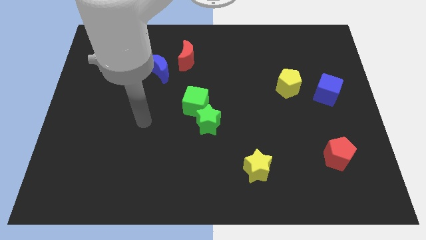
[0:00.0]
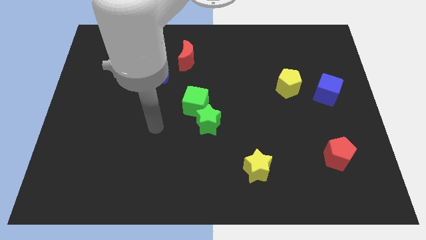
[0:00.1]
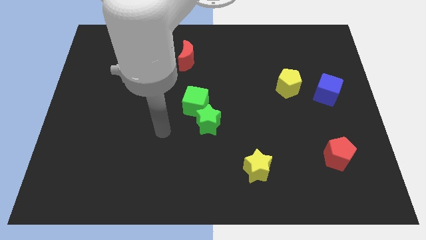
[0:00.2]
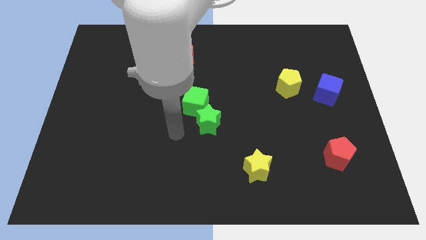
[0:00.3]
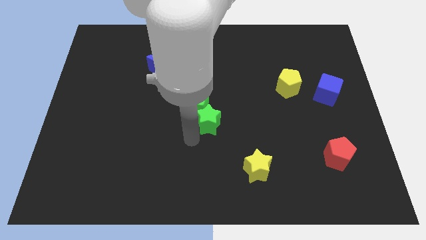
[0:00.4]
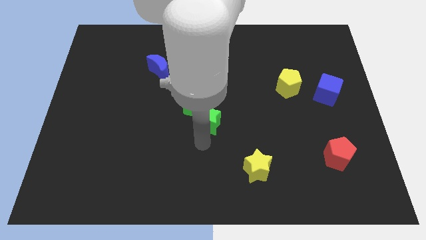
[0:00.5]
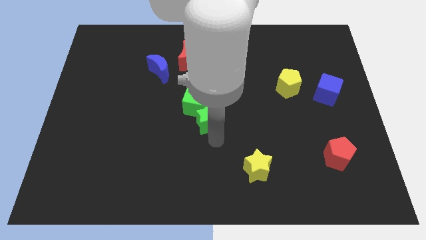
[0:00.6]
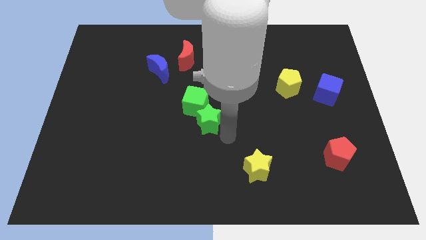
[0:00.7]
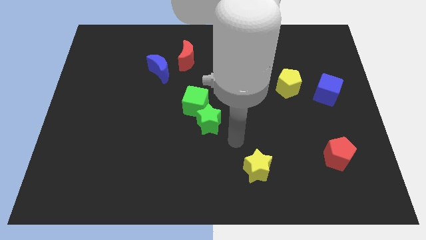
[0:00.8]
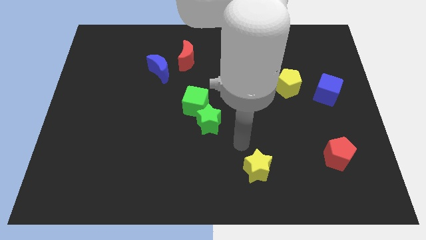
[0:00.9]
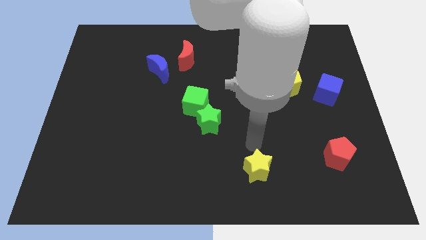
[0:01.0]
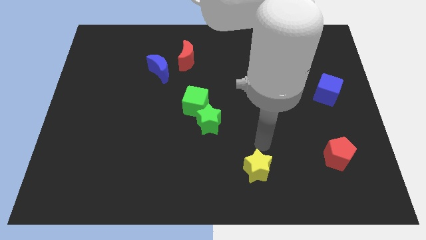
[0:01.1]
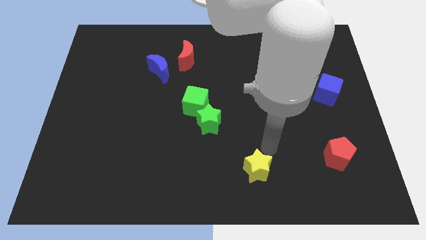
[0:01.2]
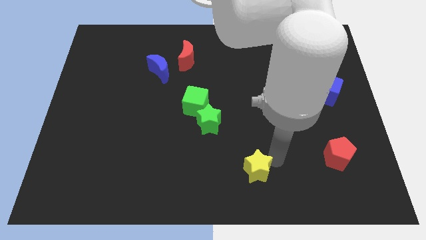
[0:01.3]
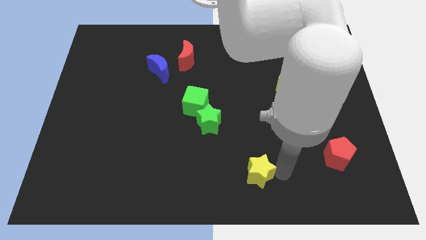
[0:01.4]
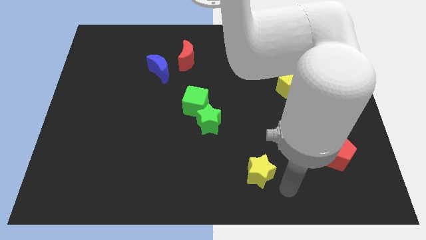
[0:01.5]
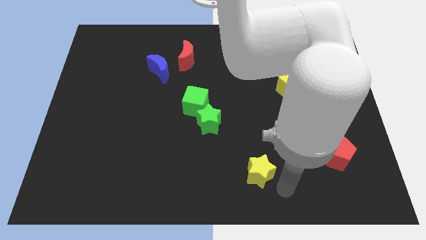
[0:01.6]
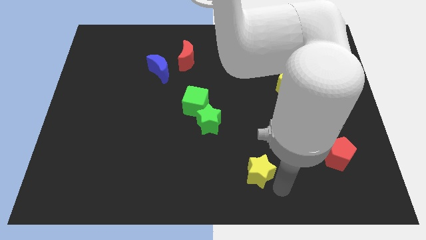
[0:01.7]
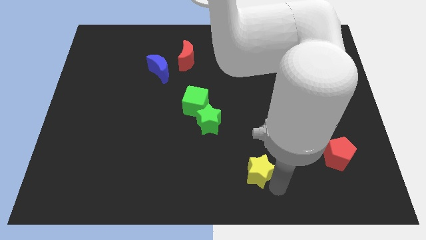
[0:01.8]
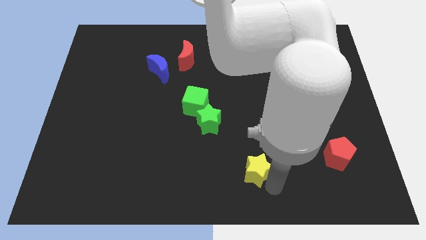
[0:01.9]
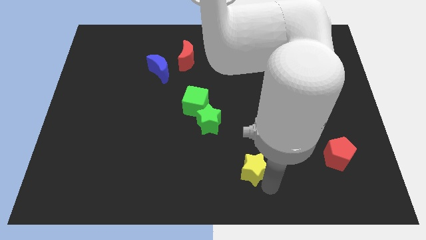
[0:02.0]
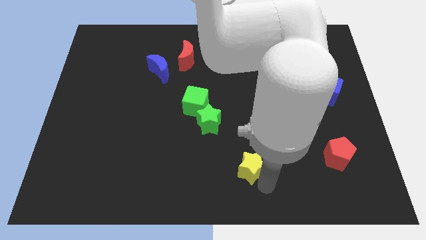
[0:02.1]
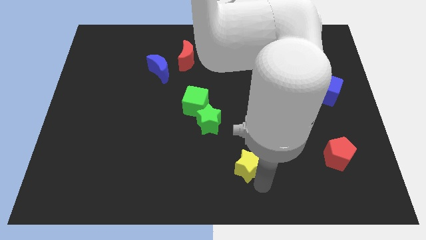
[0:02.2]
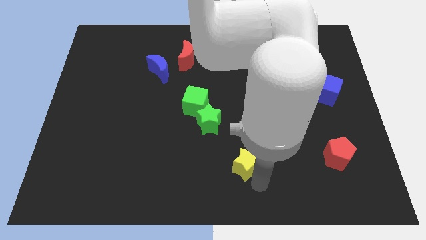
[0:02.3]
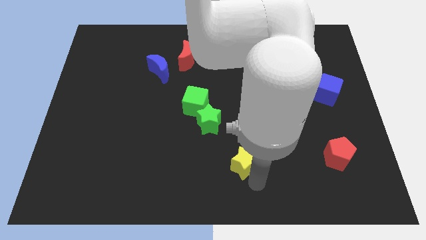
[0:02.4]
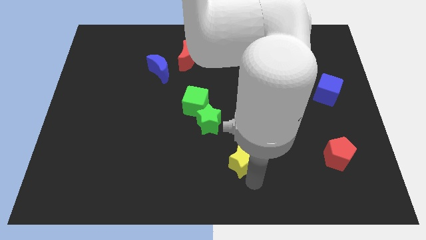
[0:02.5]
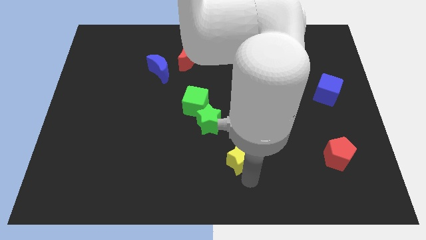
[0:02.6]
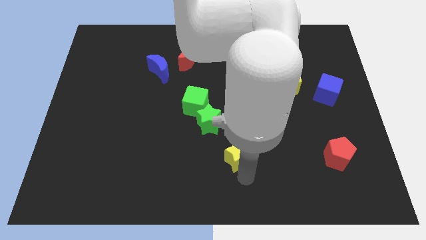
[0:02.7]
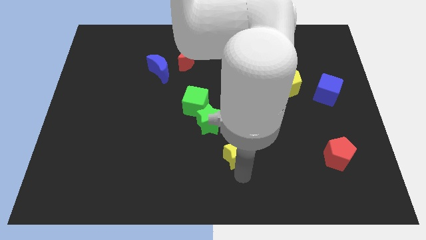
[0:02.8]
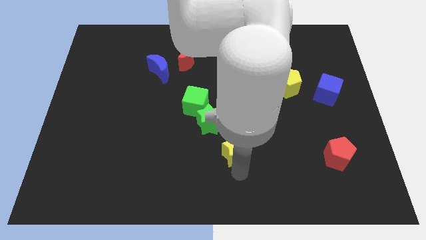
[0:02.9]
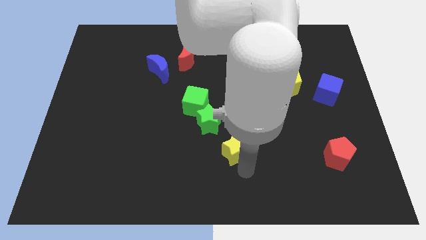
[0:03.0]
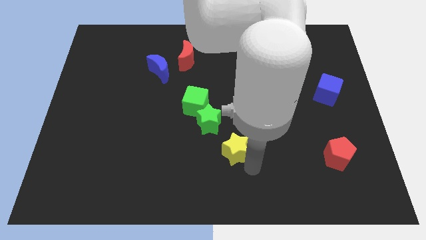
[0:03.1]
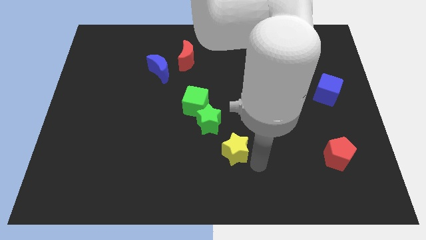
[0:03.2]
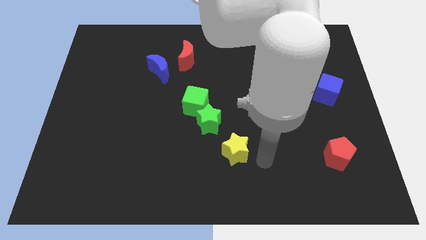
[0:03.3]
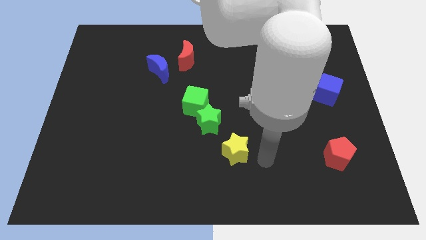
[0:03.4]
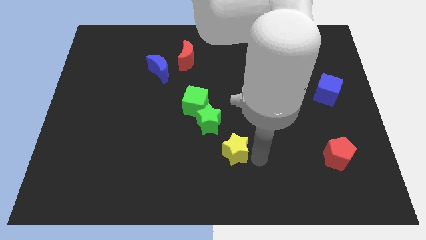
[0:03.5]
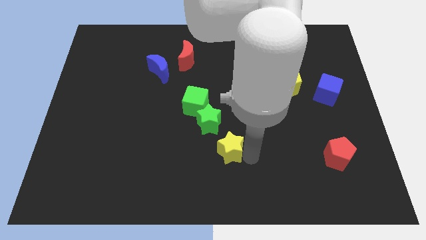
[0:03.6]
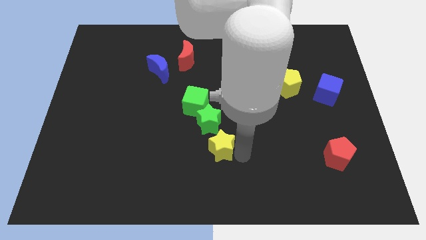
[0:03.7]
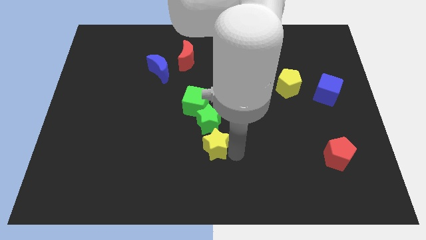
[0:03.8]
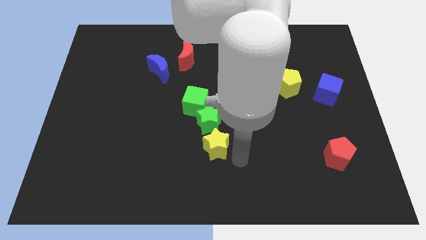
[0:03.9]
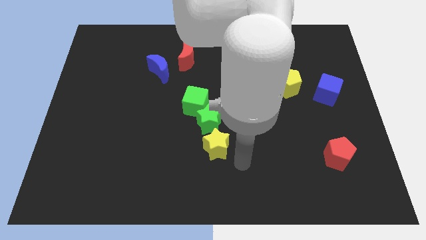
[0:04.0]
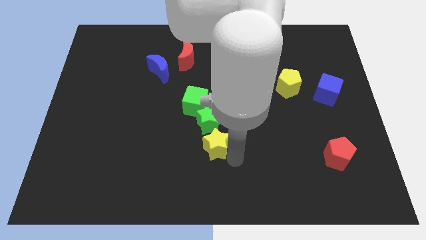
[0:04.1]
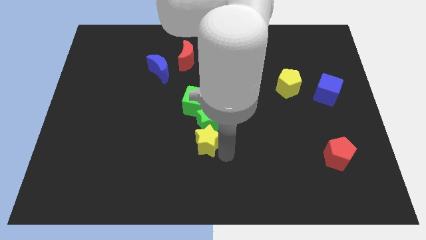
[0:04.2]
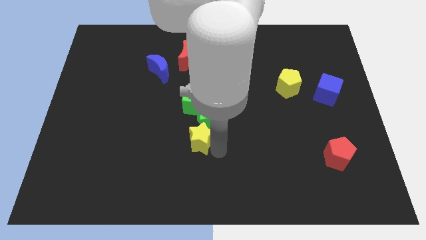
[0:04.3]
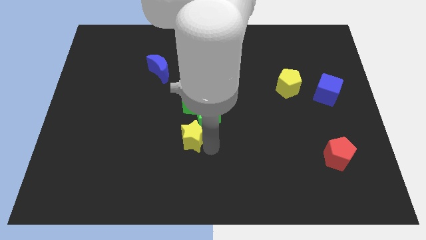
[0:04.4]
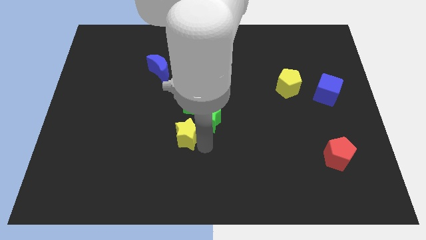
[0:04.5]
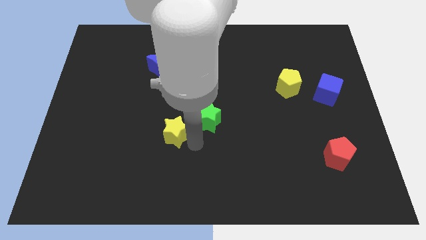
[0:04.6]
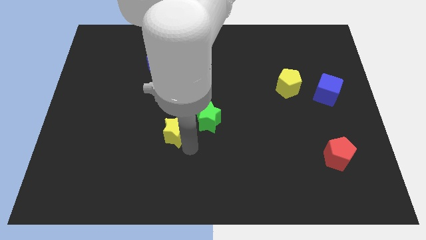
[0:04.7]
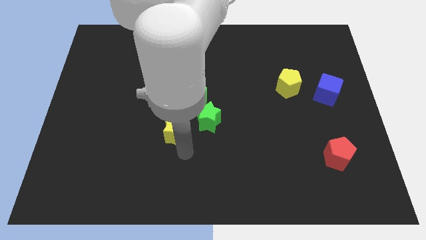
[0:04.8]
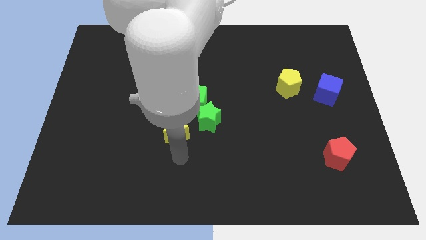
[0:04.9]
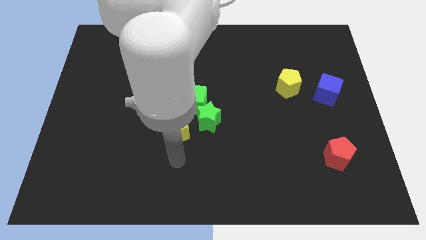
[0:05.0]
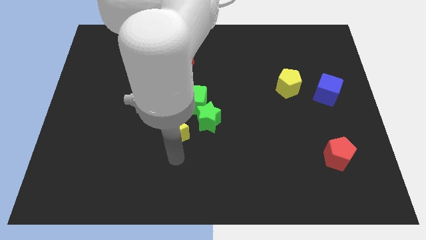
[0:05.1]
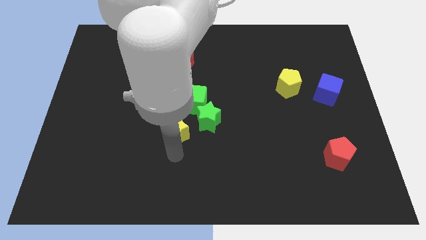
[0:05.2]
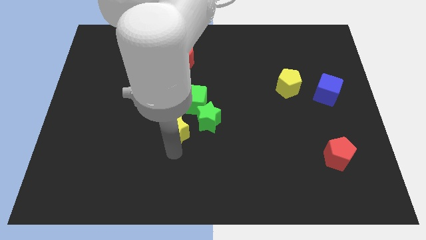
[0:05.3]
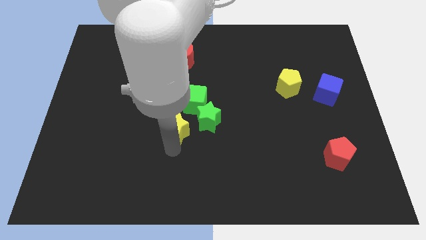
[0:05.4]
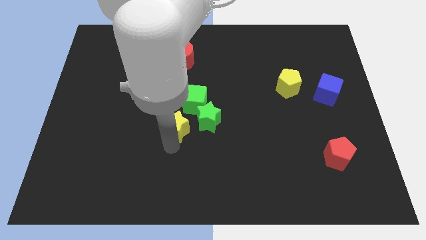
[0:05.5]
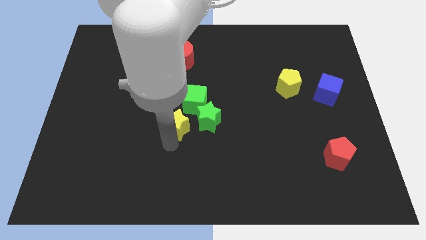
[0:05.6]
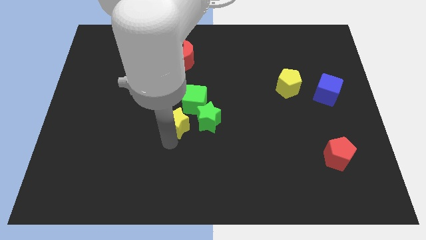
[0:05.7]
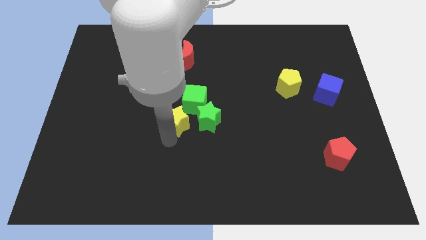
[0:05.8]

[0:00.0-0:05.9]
push the yellow star diagonally upwards and to the left

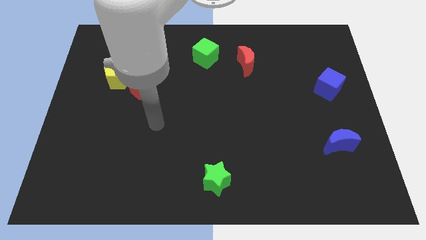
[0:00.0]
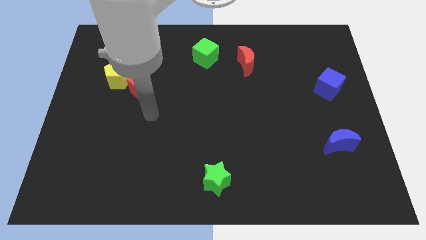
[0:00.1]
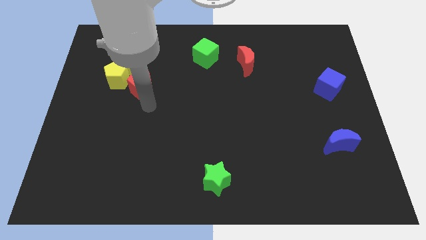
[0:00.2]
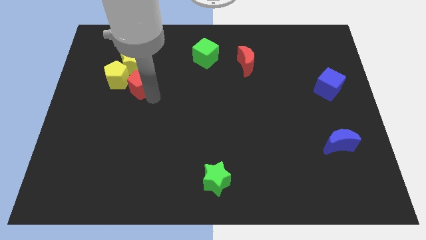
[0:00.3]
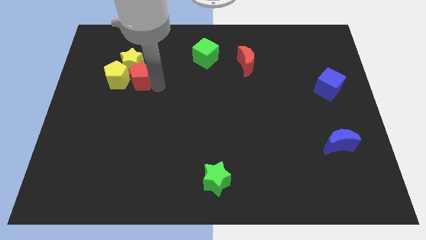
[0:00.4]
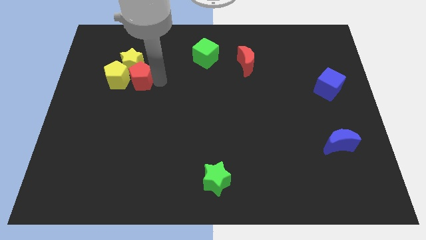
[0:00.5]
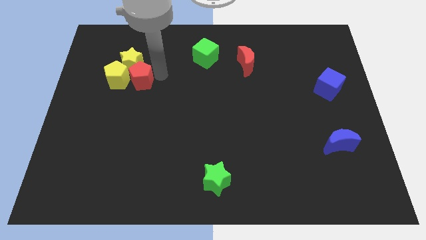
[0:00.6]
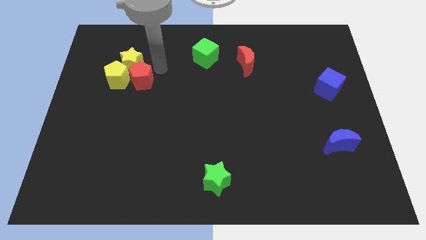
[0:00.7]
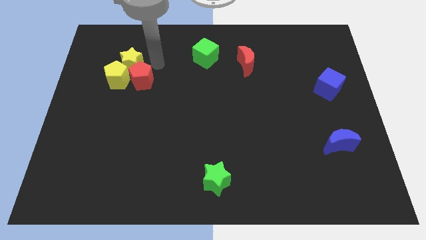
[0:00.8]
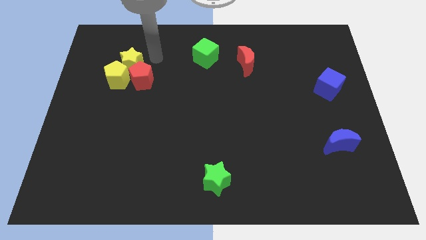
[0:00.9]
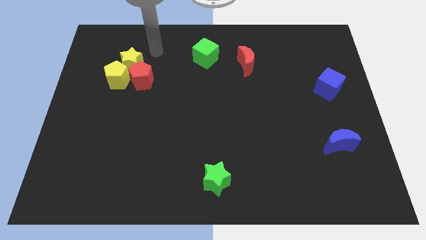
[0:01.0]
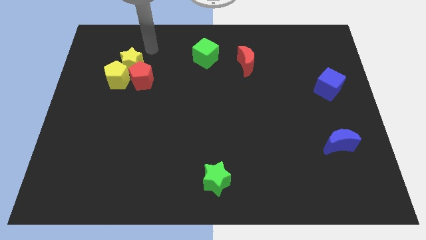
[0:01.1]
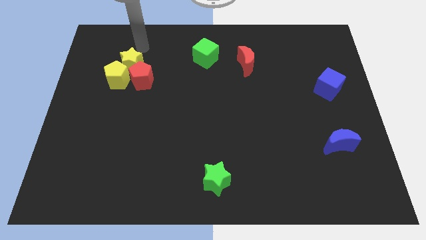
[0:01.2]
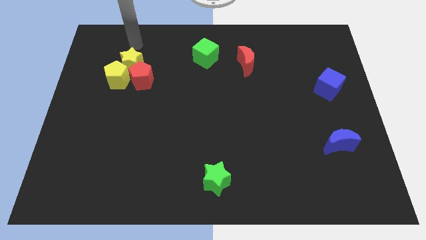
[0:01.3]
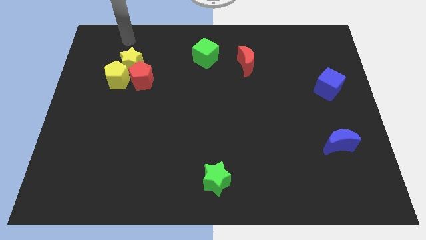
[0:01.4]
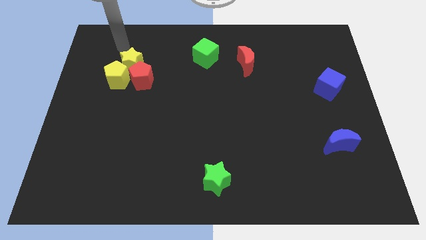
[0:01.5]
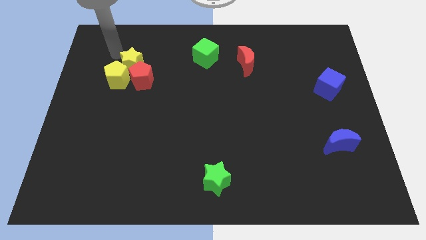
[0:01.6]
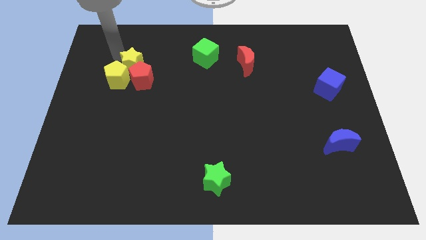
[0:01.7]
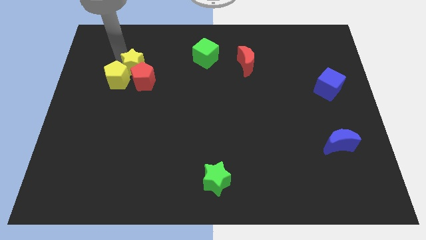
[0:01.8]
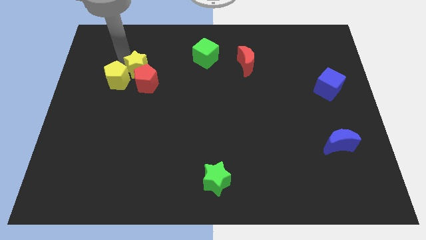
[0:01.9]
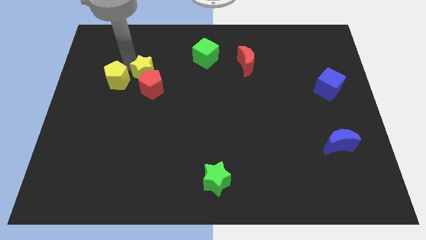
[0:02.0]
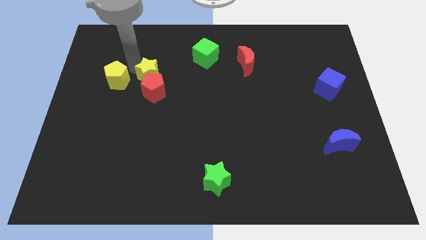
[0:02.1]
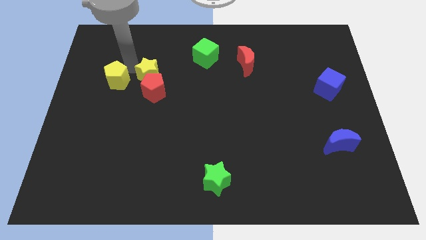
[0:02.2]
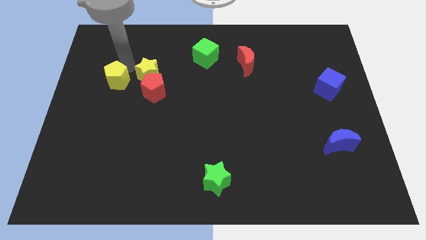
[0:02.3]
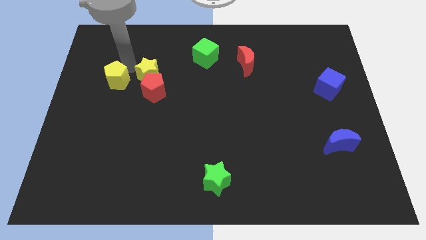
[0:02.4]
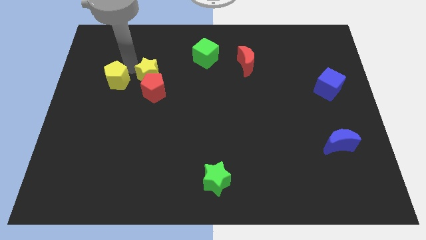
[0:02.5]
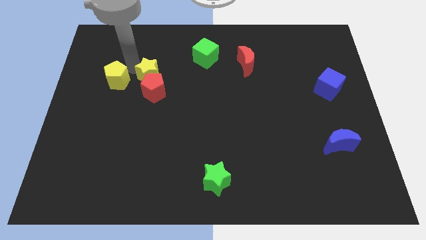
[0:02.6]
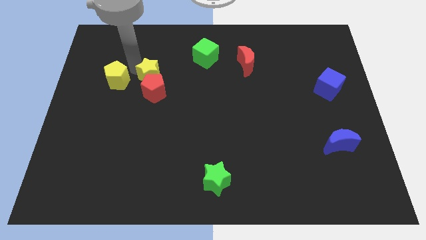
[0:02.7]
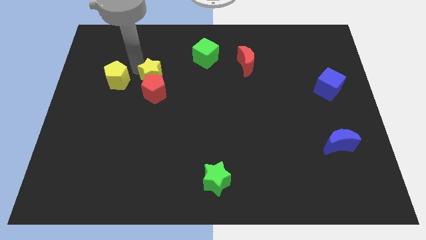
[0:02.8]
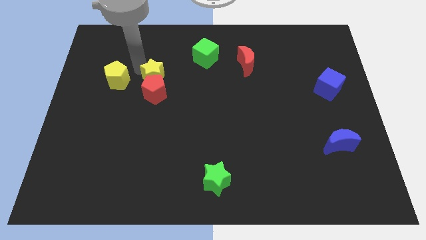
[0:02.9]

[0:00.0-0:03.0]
push the yellow star somewhat down and to the right
